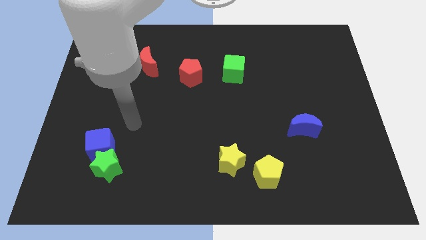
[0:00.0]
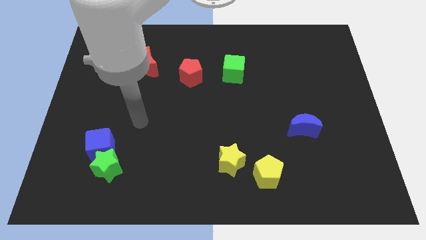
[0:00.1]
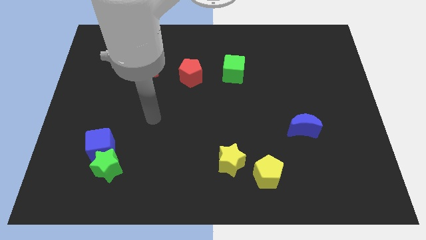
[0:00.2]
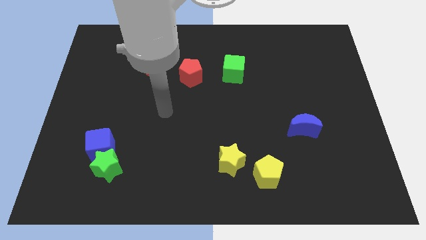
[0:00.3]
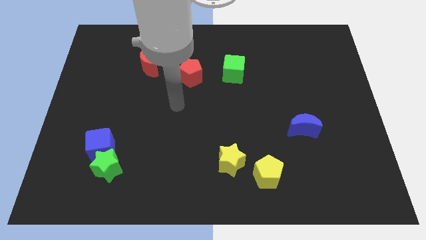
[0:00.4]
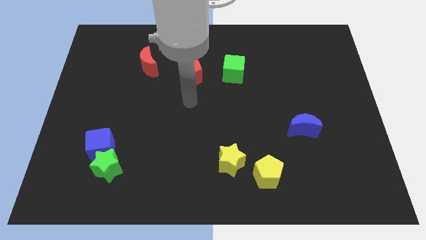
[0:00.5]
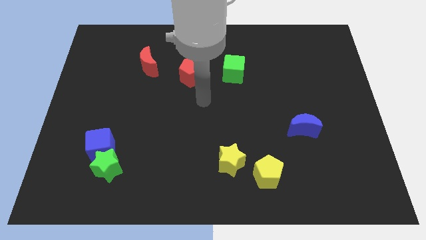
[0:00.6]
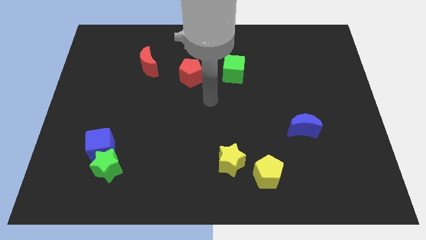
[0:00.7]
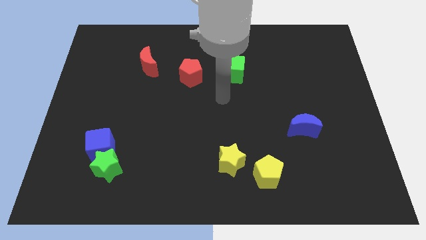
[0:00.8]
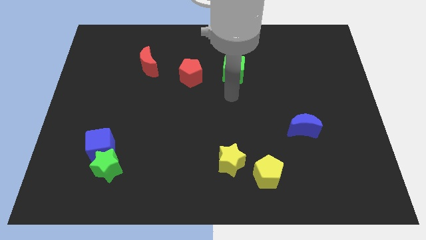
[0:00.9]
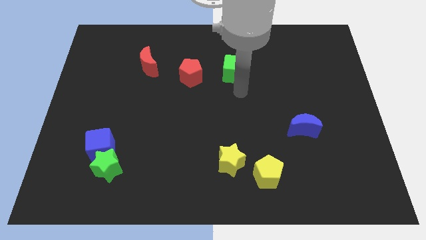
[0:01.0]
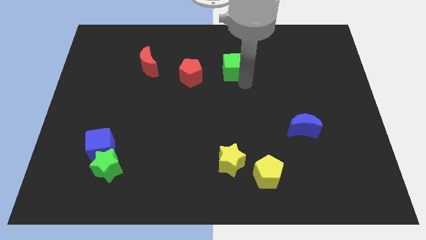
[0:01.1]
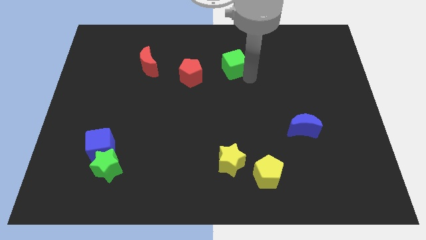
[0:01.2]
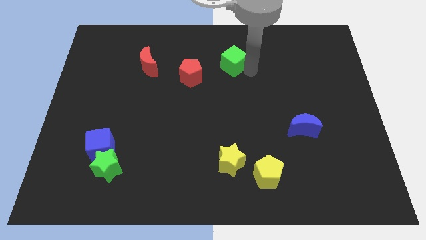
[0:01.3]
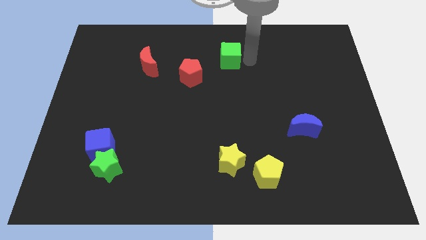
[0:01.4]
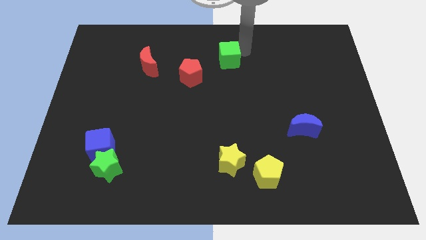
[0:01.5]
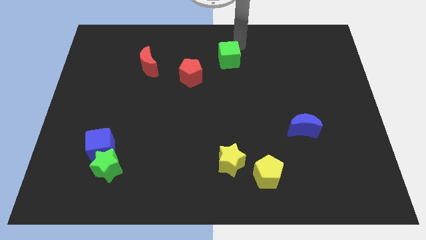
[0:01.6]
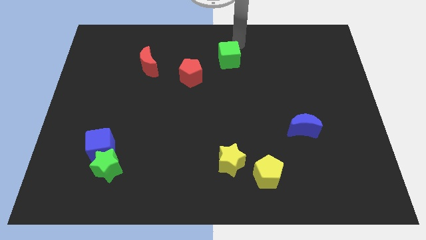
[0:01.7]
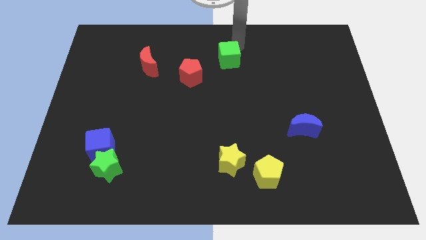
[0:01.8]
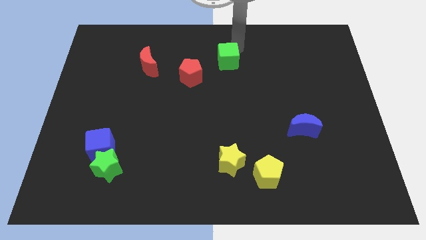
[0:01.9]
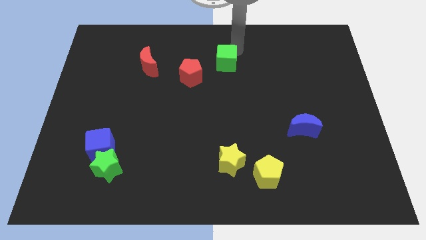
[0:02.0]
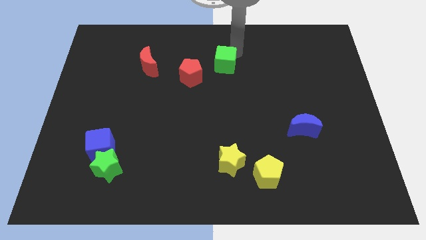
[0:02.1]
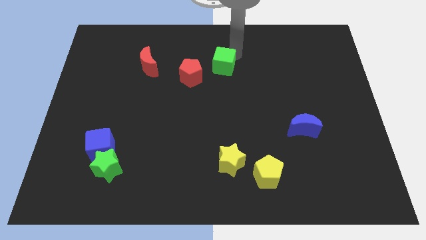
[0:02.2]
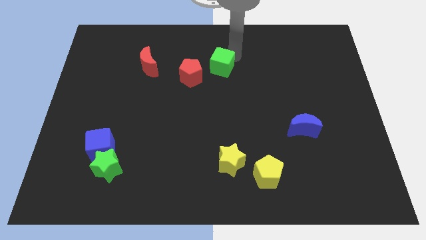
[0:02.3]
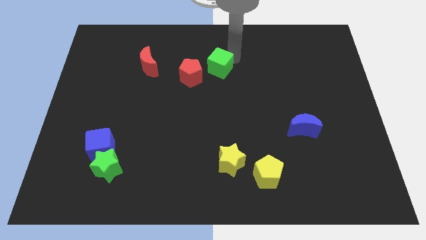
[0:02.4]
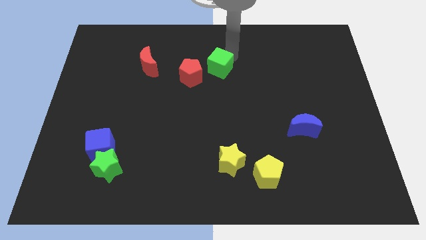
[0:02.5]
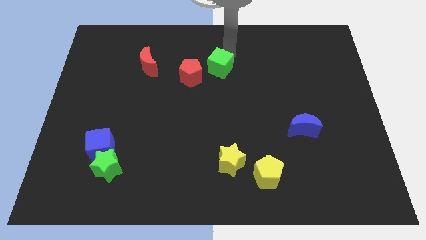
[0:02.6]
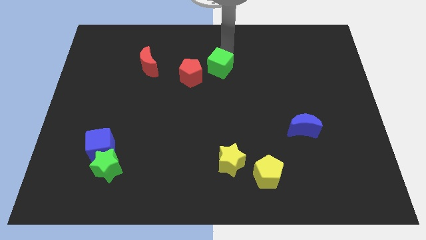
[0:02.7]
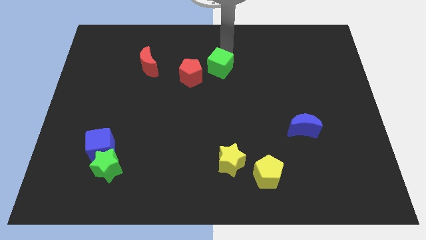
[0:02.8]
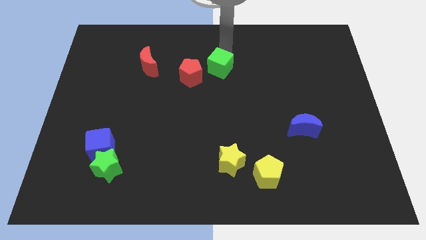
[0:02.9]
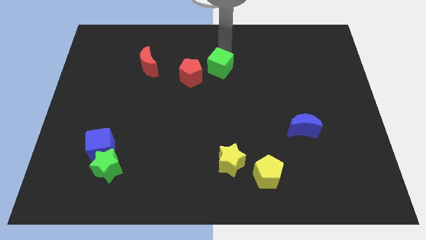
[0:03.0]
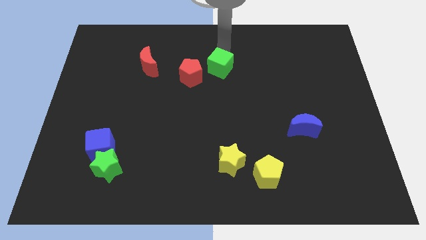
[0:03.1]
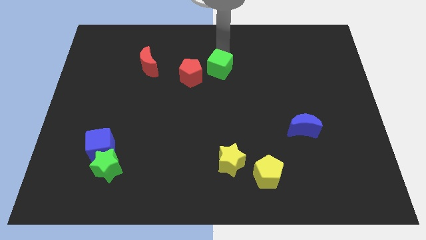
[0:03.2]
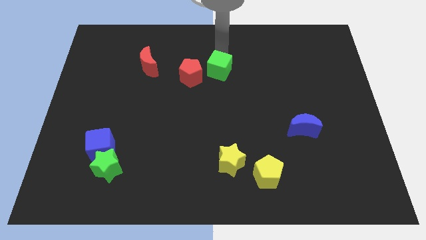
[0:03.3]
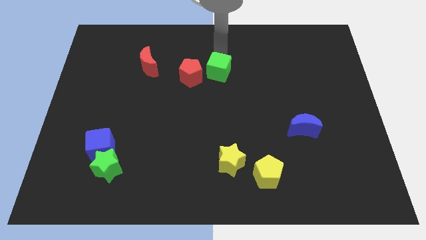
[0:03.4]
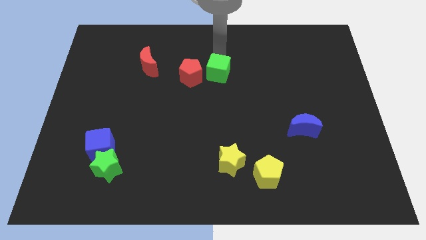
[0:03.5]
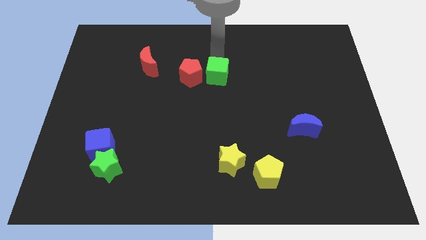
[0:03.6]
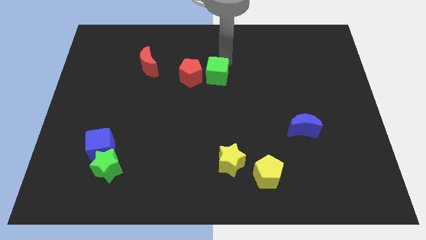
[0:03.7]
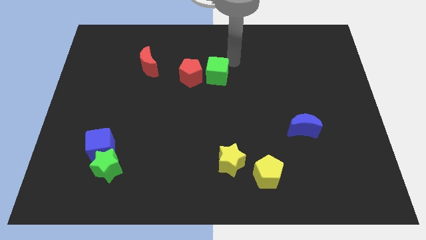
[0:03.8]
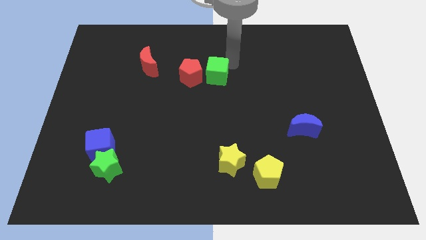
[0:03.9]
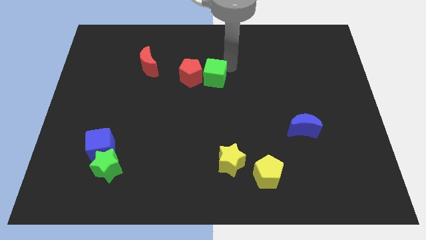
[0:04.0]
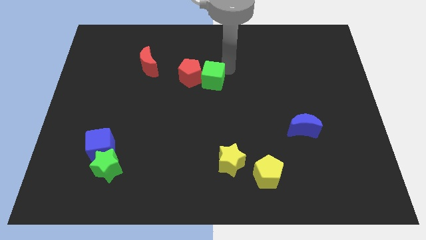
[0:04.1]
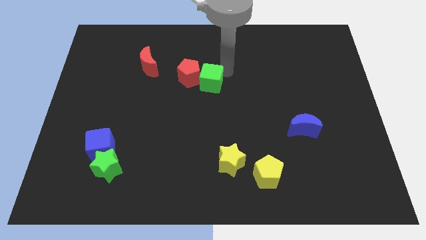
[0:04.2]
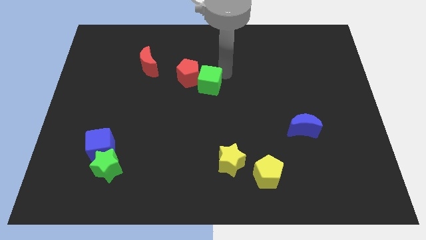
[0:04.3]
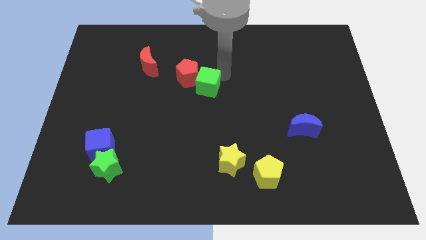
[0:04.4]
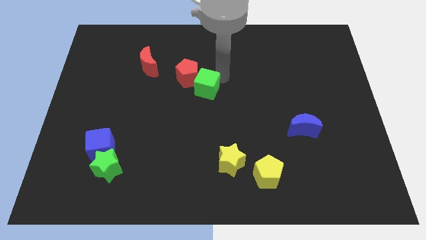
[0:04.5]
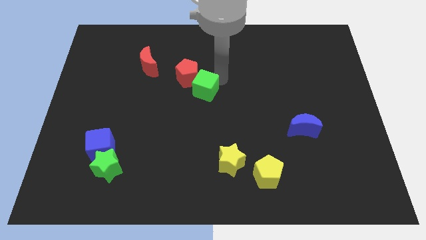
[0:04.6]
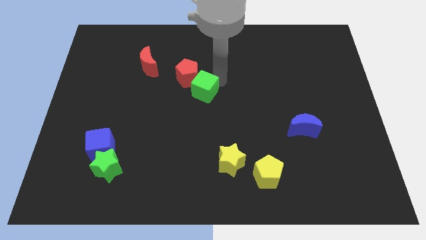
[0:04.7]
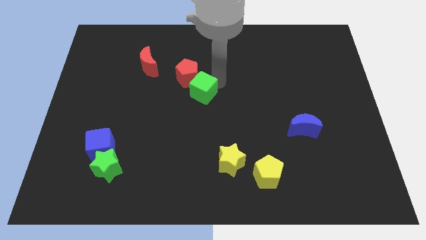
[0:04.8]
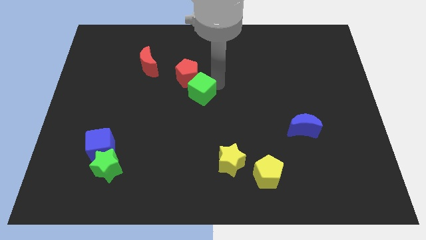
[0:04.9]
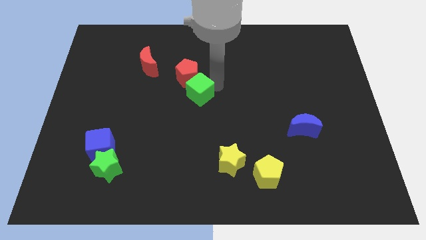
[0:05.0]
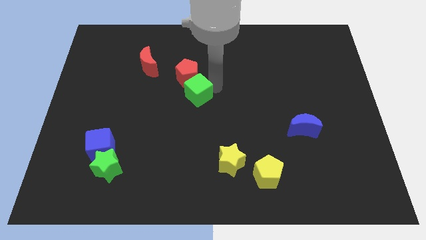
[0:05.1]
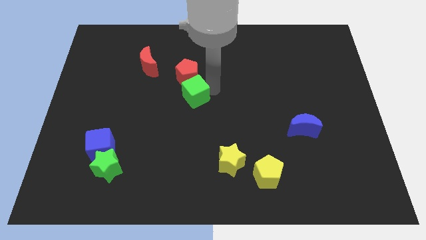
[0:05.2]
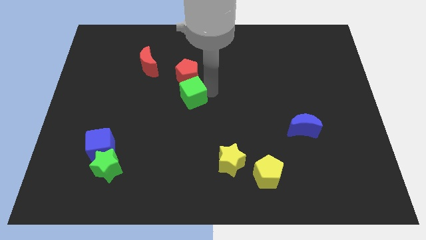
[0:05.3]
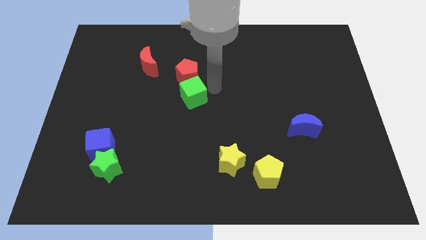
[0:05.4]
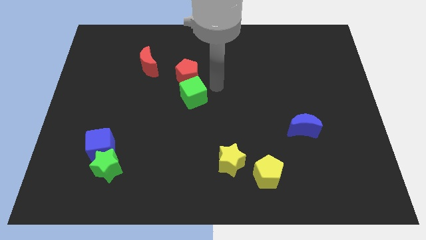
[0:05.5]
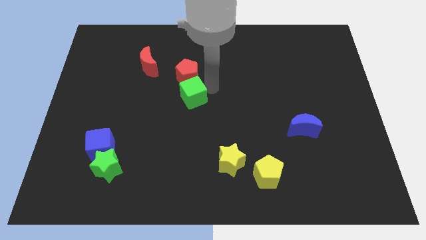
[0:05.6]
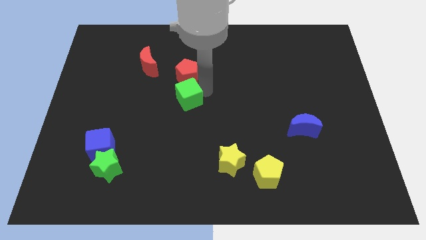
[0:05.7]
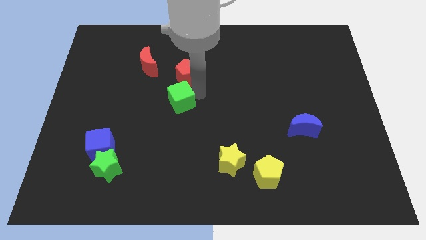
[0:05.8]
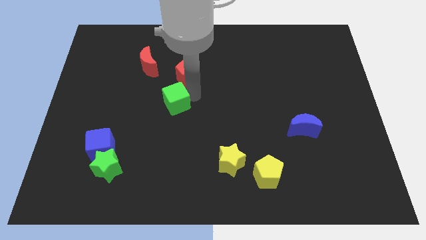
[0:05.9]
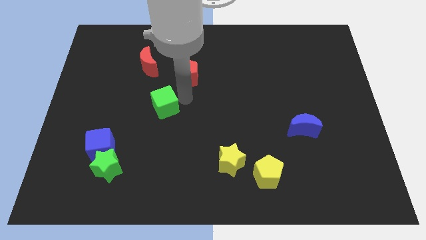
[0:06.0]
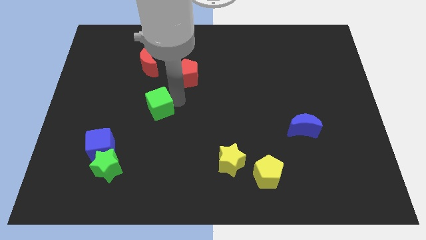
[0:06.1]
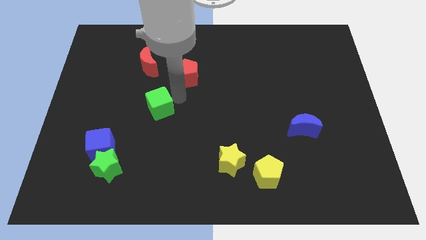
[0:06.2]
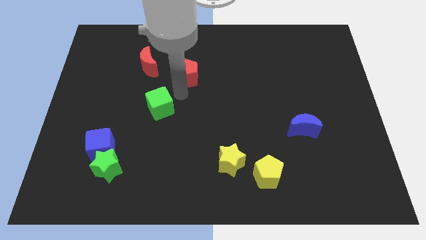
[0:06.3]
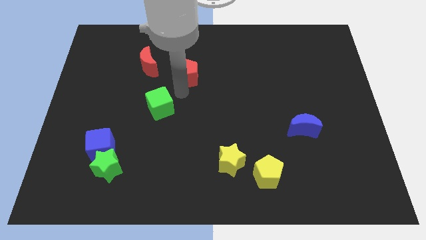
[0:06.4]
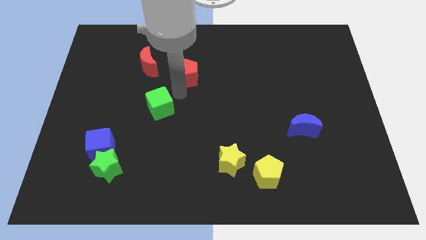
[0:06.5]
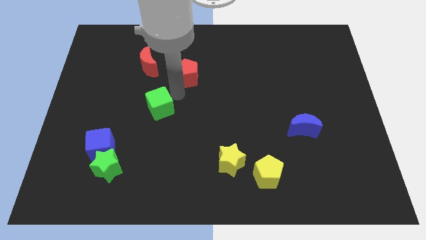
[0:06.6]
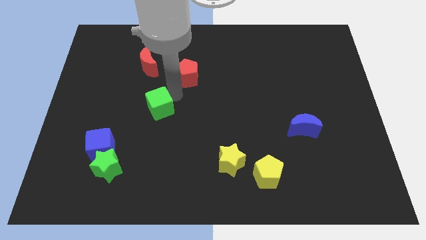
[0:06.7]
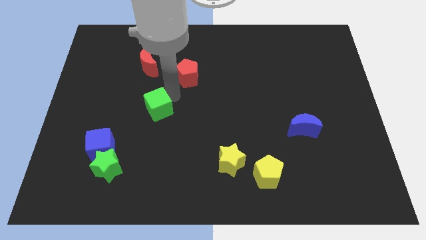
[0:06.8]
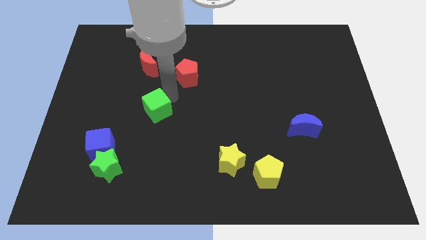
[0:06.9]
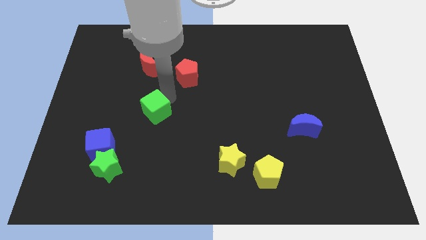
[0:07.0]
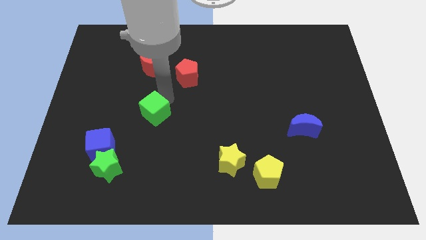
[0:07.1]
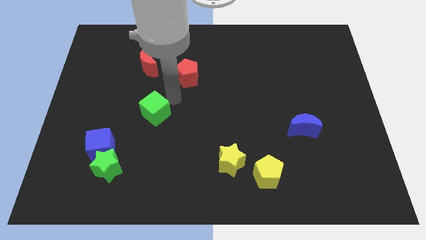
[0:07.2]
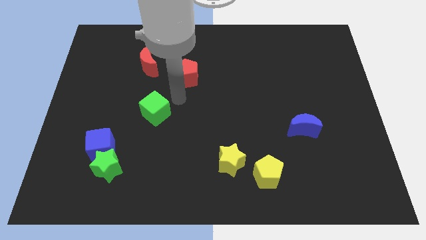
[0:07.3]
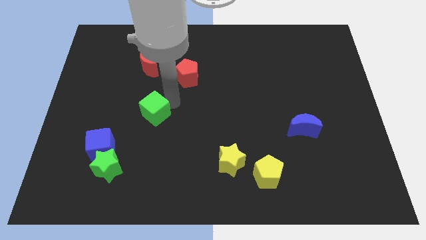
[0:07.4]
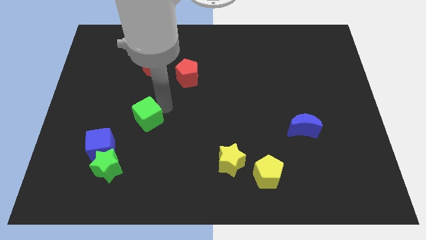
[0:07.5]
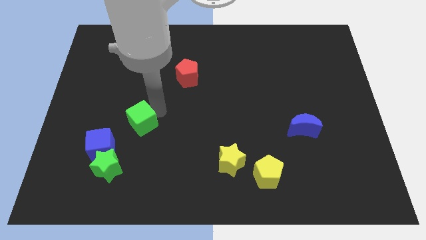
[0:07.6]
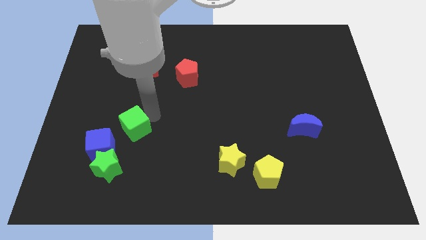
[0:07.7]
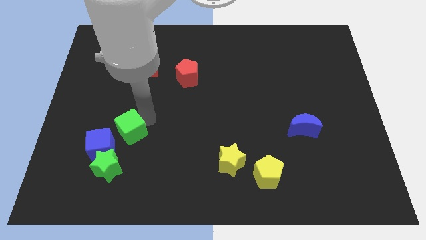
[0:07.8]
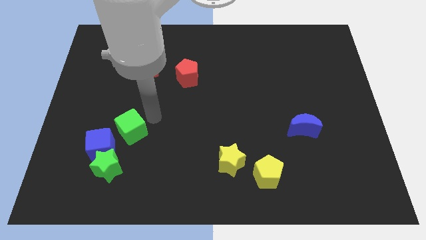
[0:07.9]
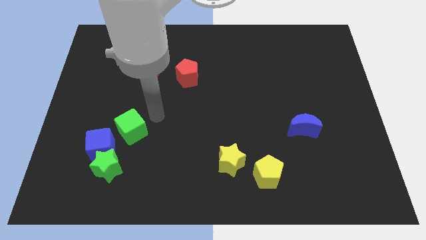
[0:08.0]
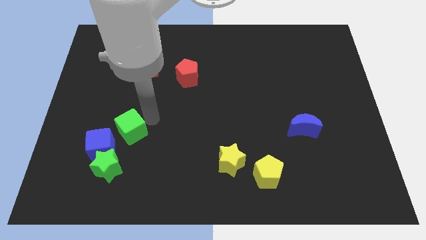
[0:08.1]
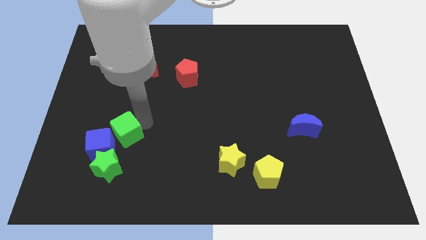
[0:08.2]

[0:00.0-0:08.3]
put the green cube towards the blue cube
